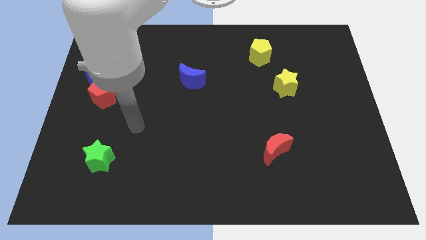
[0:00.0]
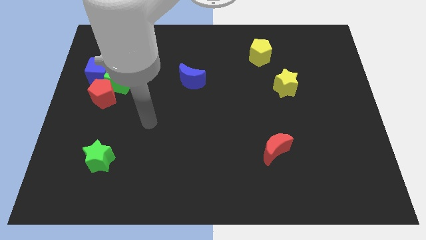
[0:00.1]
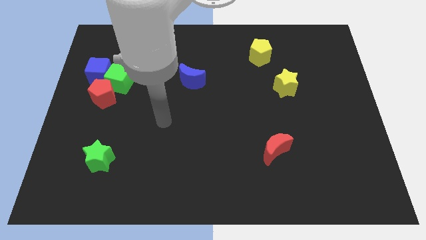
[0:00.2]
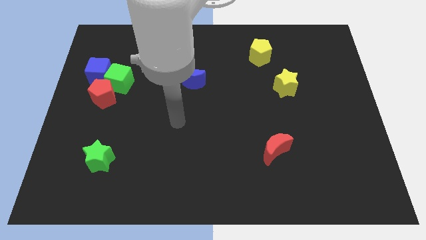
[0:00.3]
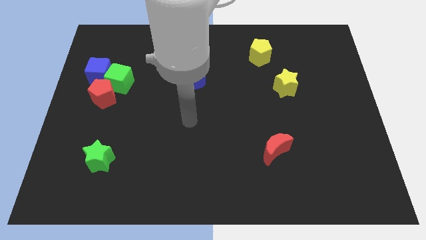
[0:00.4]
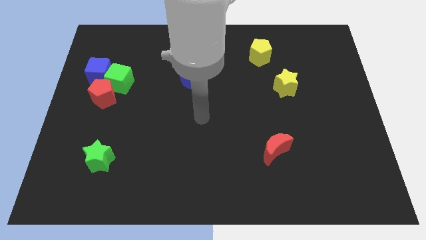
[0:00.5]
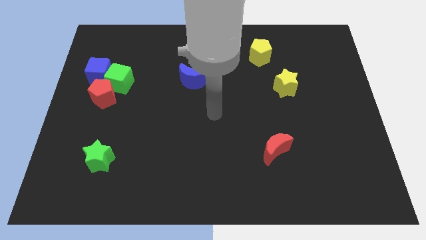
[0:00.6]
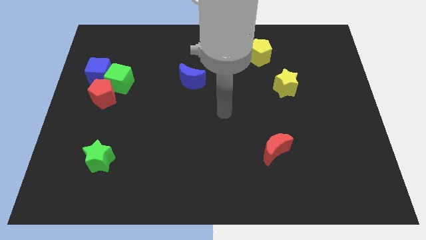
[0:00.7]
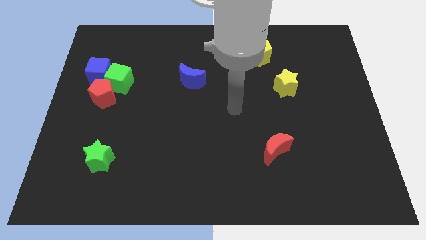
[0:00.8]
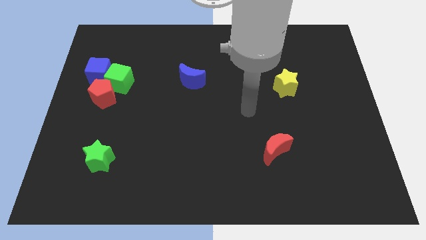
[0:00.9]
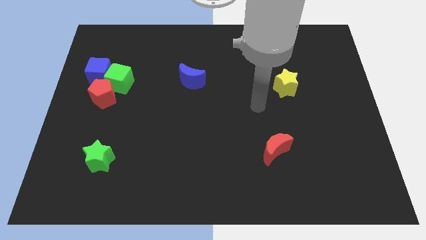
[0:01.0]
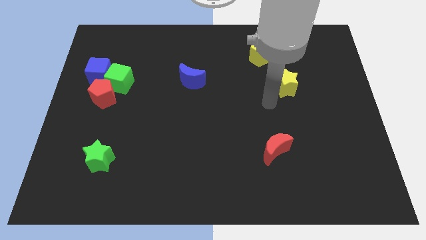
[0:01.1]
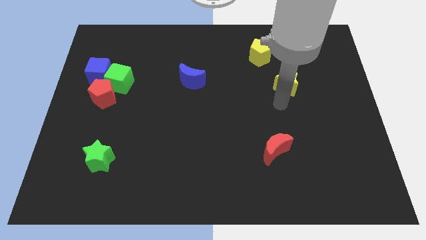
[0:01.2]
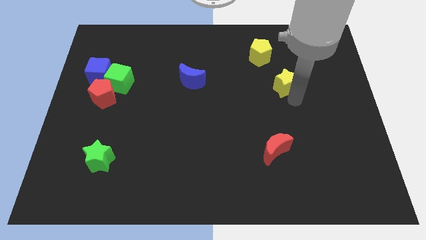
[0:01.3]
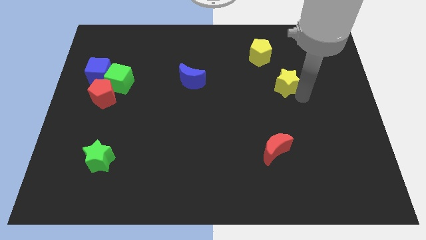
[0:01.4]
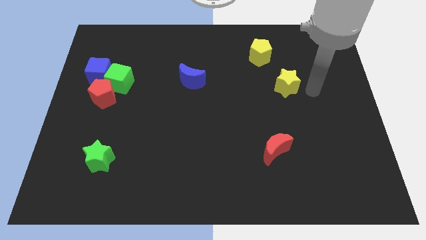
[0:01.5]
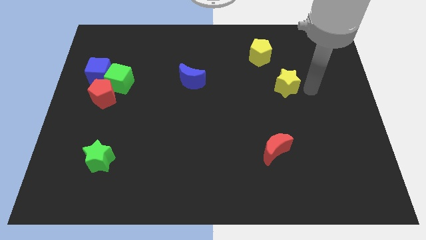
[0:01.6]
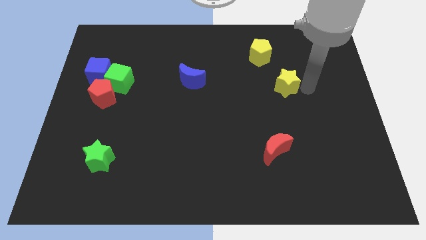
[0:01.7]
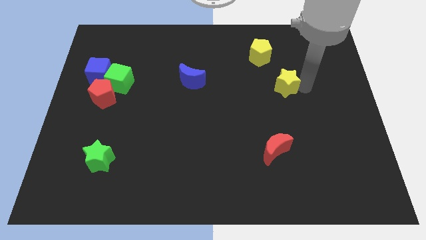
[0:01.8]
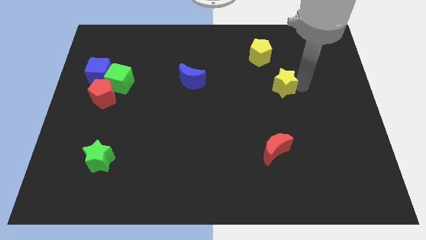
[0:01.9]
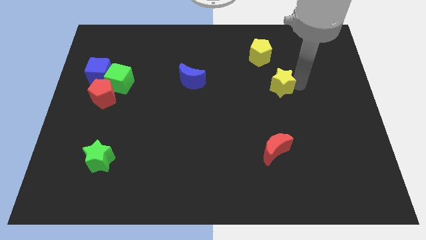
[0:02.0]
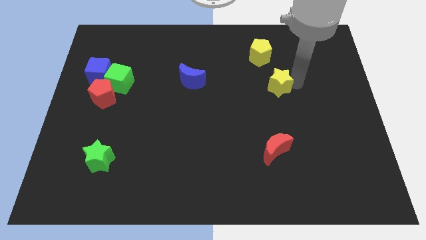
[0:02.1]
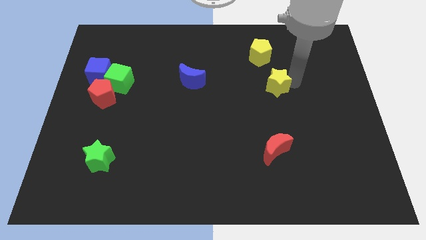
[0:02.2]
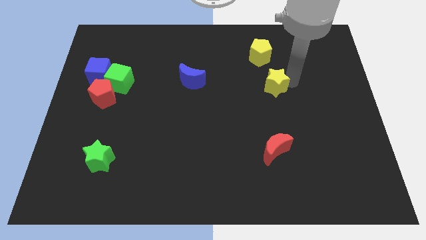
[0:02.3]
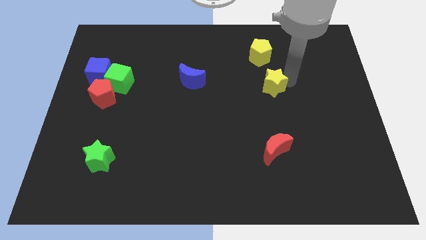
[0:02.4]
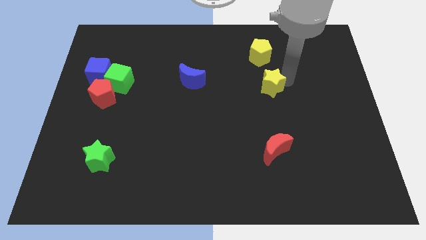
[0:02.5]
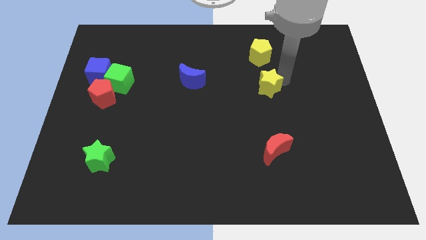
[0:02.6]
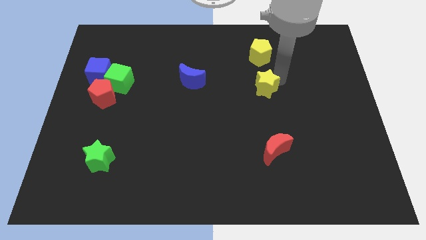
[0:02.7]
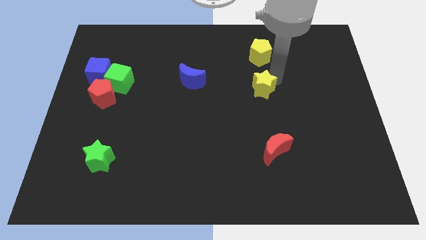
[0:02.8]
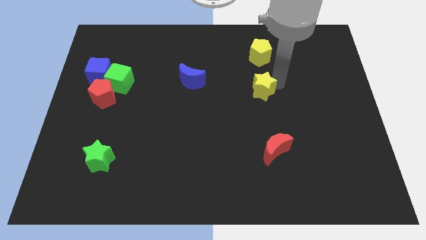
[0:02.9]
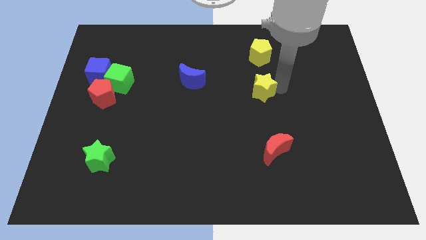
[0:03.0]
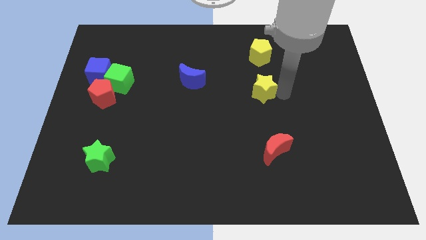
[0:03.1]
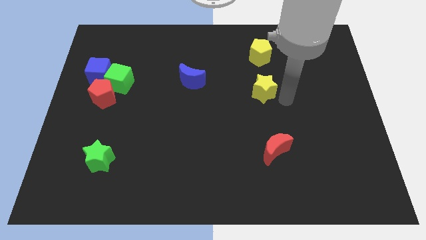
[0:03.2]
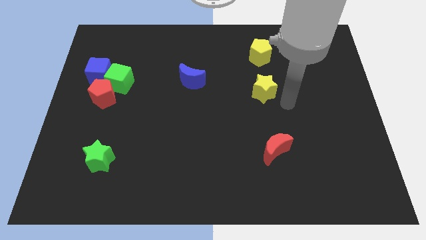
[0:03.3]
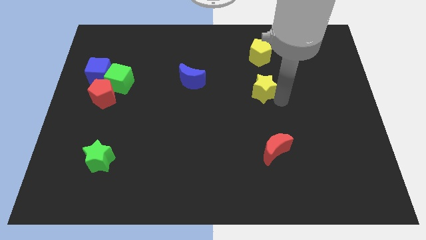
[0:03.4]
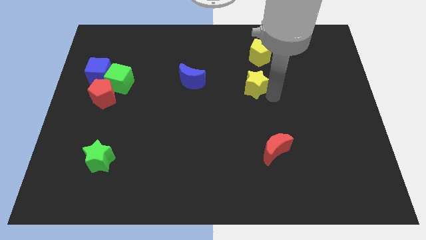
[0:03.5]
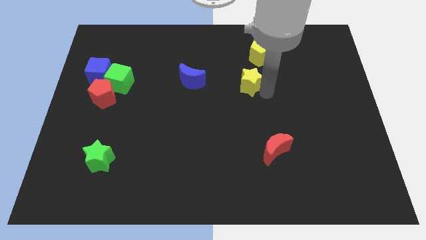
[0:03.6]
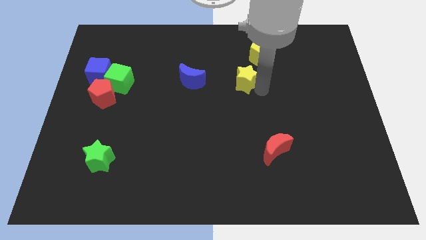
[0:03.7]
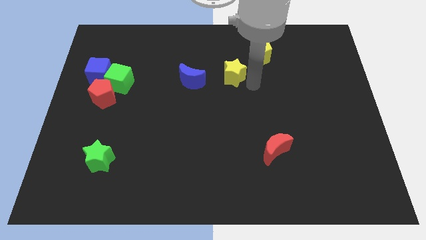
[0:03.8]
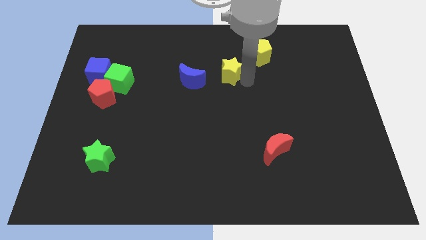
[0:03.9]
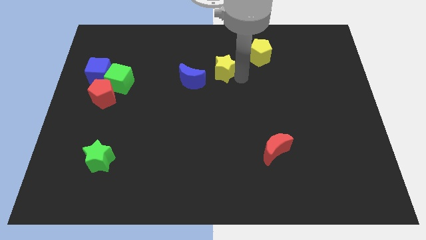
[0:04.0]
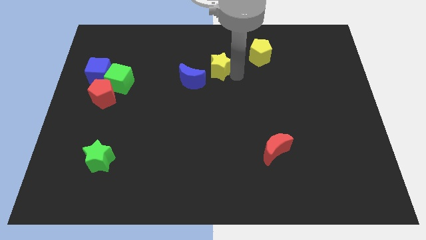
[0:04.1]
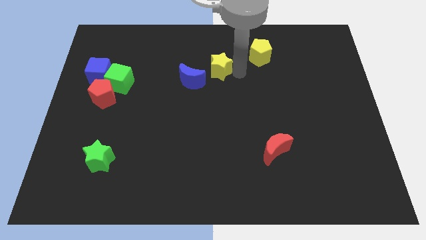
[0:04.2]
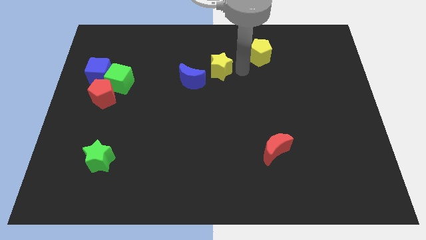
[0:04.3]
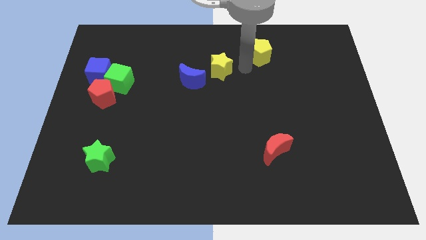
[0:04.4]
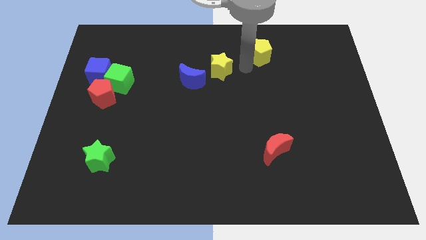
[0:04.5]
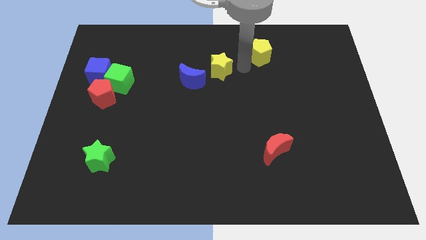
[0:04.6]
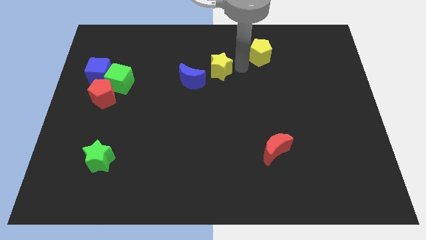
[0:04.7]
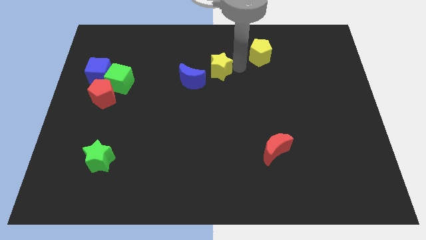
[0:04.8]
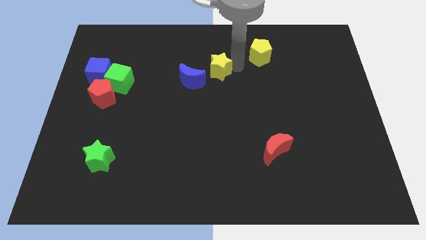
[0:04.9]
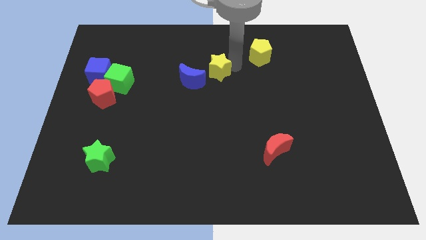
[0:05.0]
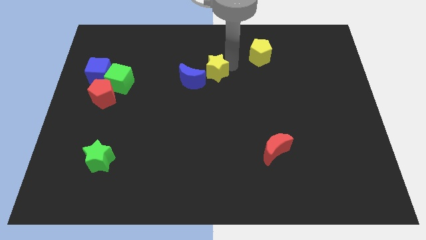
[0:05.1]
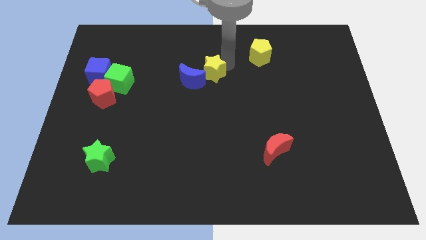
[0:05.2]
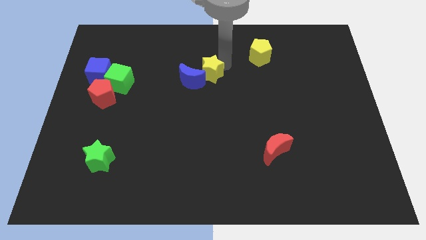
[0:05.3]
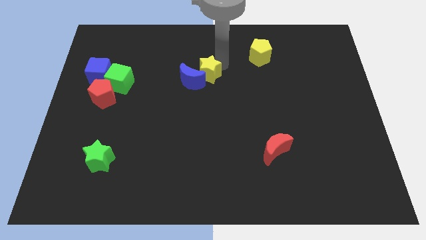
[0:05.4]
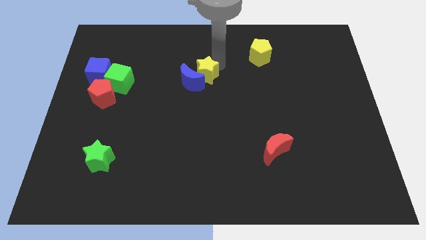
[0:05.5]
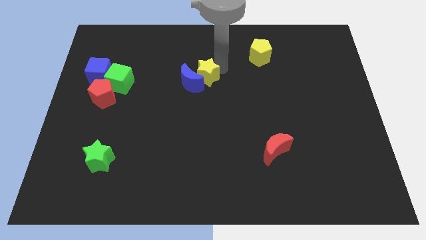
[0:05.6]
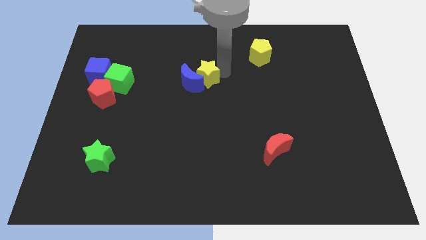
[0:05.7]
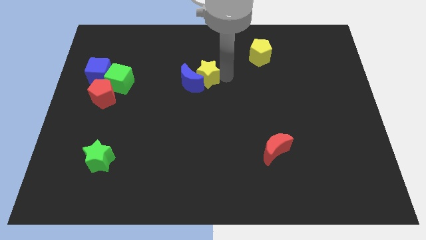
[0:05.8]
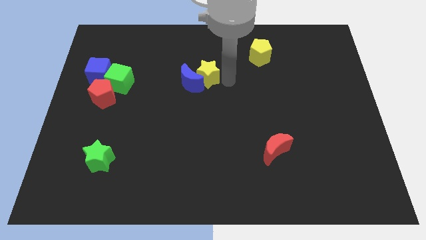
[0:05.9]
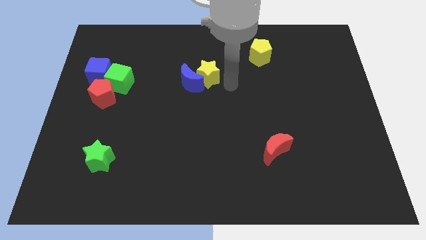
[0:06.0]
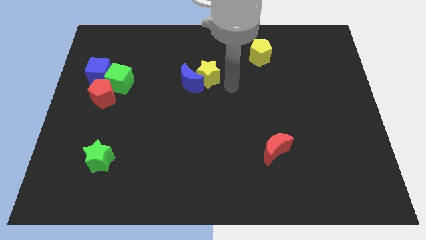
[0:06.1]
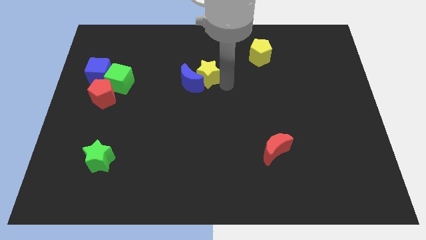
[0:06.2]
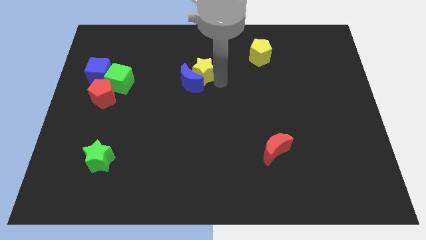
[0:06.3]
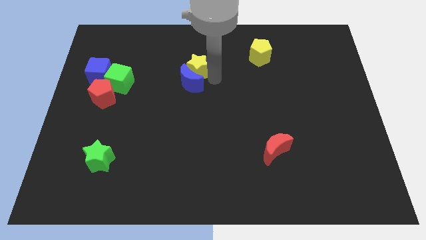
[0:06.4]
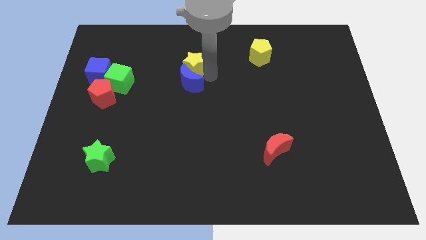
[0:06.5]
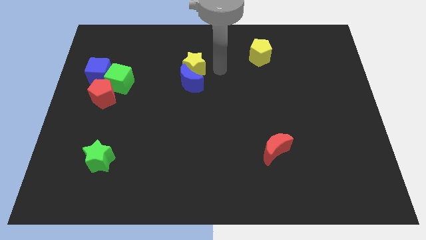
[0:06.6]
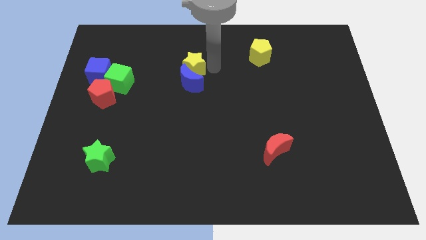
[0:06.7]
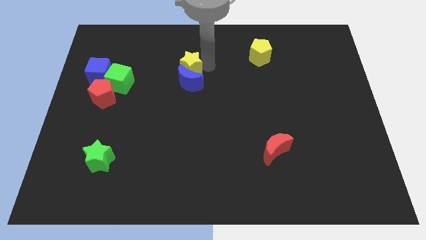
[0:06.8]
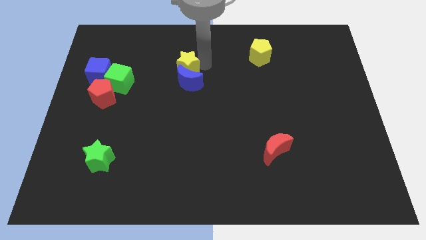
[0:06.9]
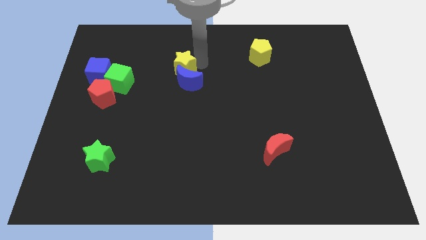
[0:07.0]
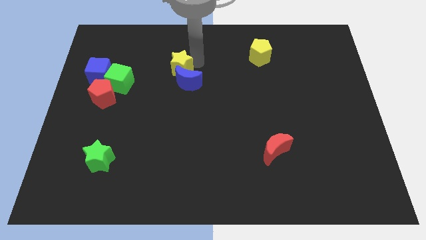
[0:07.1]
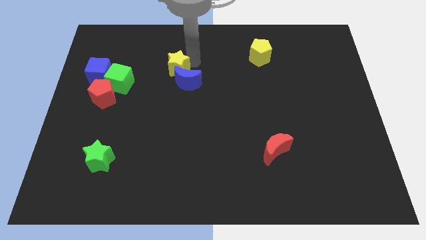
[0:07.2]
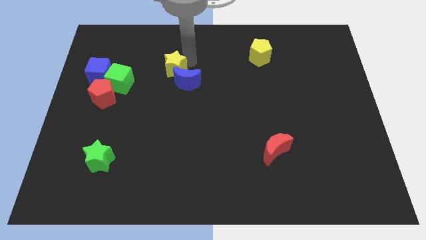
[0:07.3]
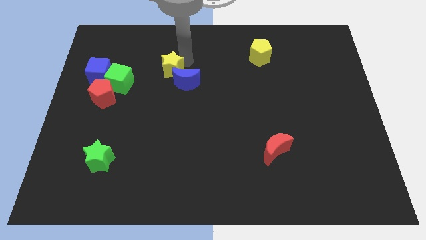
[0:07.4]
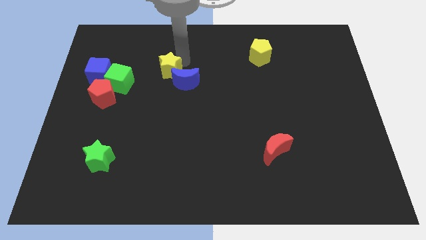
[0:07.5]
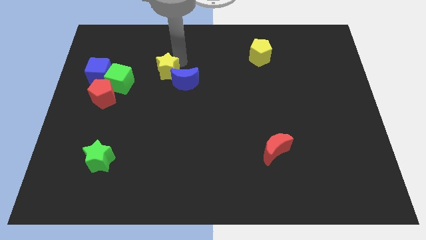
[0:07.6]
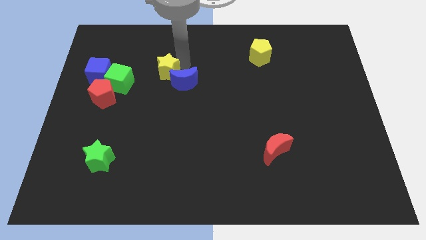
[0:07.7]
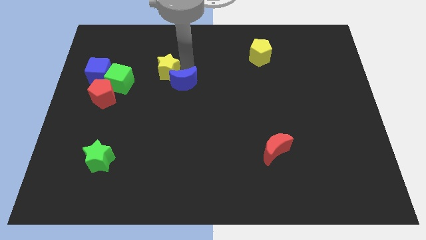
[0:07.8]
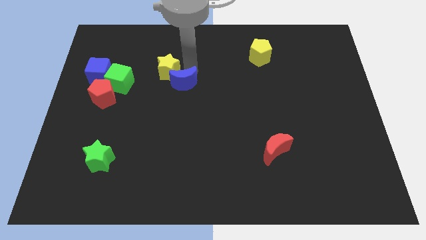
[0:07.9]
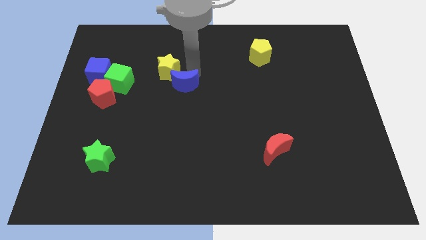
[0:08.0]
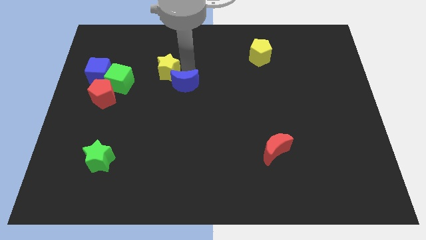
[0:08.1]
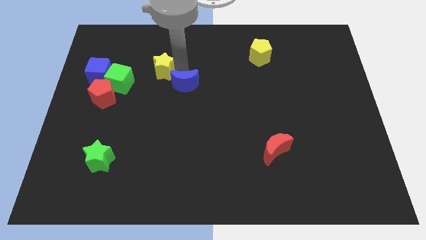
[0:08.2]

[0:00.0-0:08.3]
put the yellow star to the top right side of the green cube
